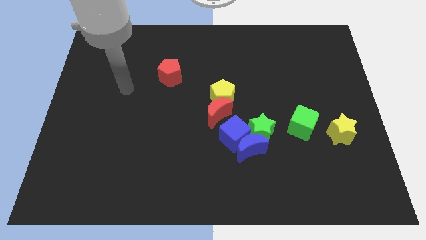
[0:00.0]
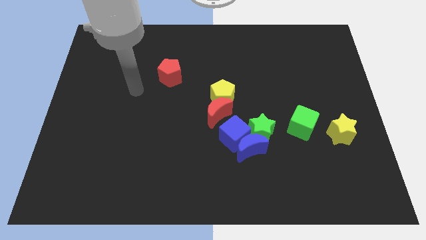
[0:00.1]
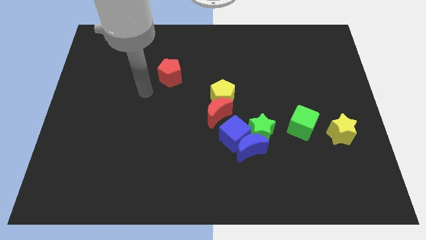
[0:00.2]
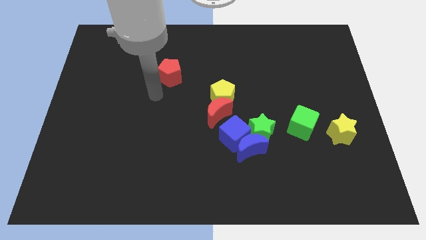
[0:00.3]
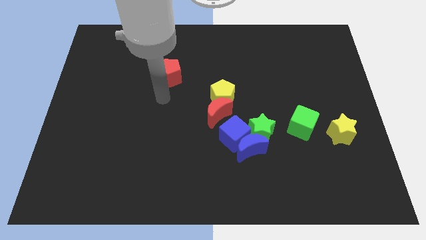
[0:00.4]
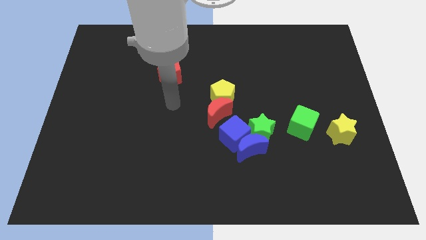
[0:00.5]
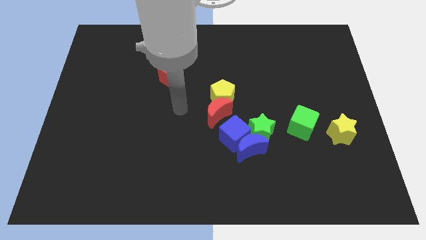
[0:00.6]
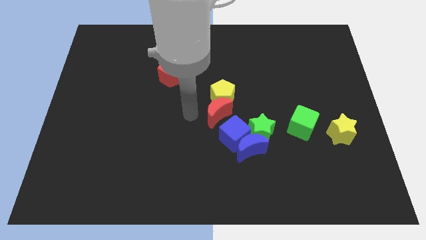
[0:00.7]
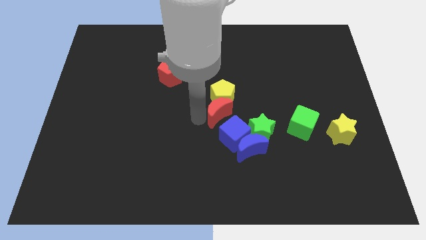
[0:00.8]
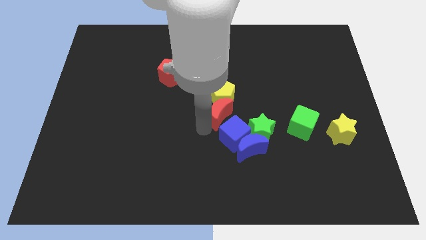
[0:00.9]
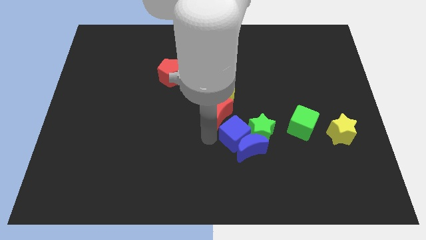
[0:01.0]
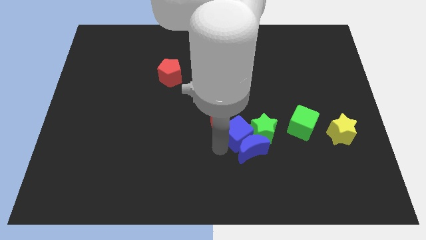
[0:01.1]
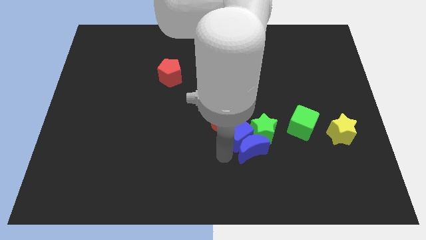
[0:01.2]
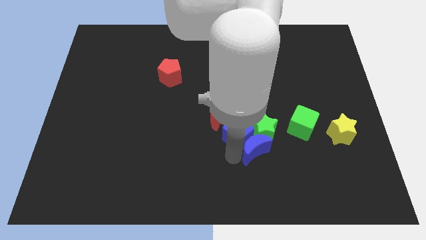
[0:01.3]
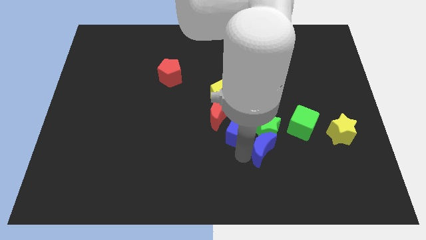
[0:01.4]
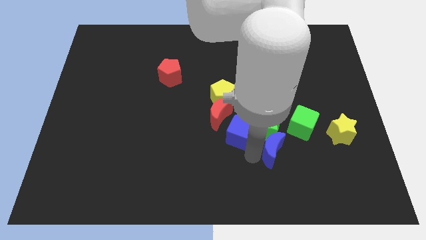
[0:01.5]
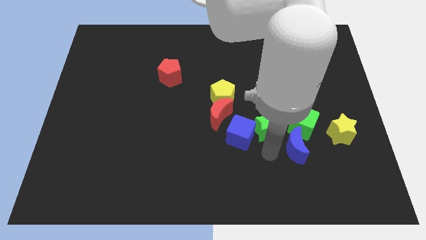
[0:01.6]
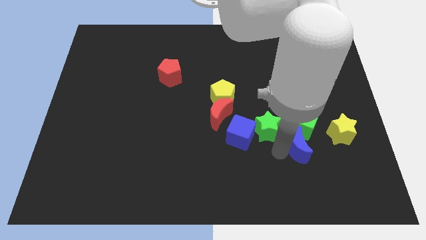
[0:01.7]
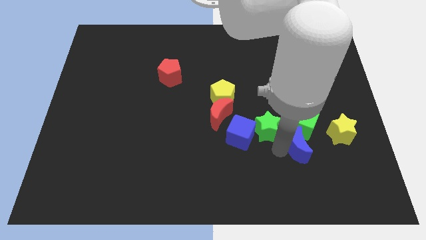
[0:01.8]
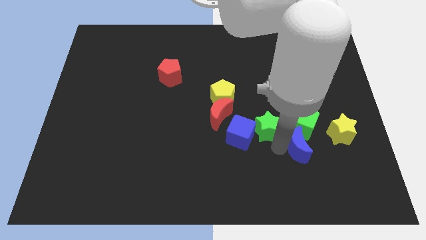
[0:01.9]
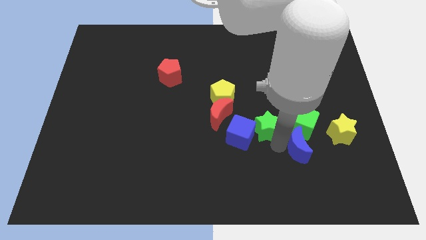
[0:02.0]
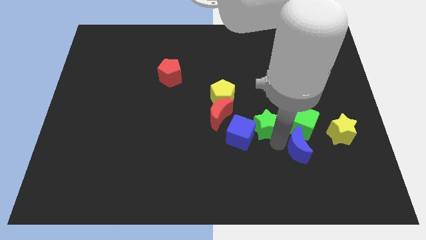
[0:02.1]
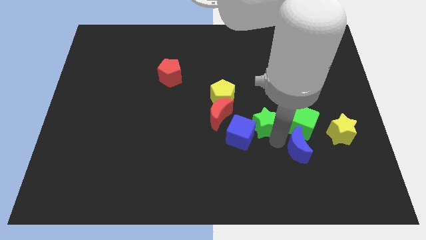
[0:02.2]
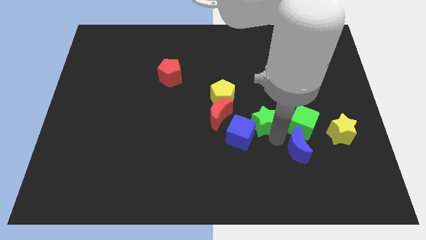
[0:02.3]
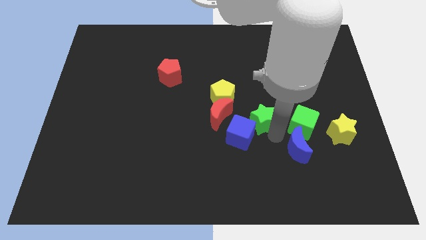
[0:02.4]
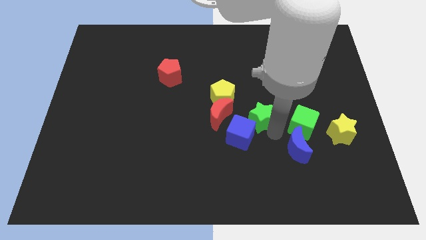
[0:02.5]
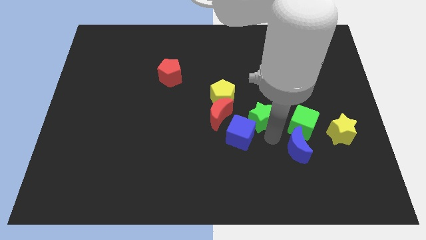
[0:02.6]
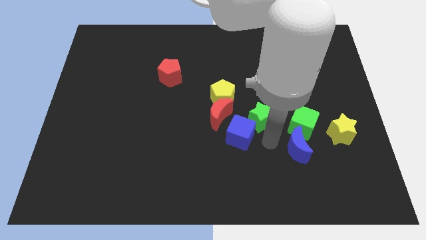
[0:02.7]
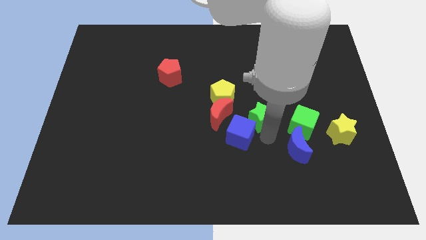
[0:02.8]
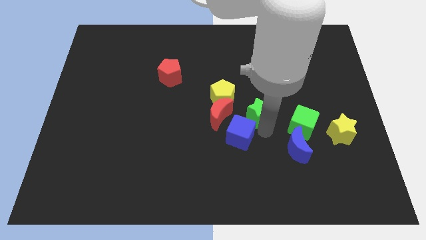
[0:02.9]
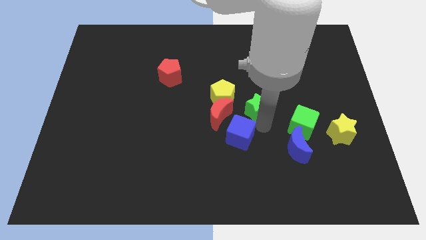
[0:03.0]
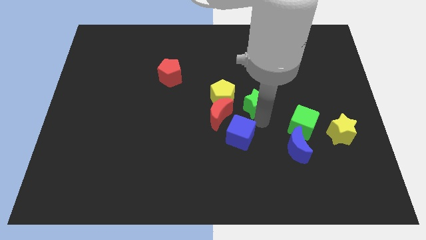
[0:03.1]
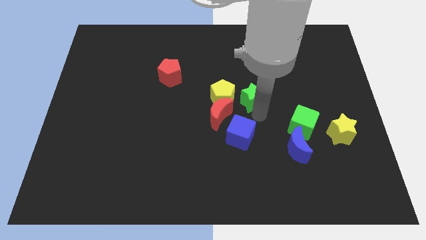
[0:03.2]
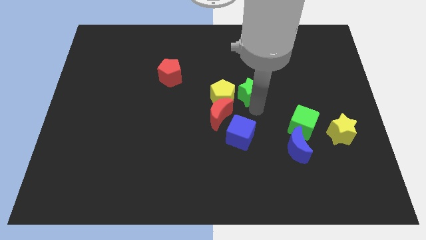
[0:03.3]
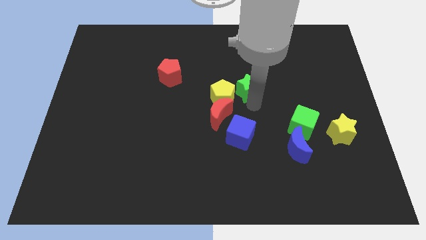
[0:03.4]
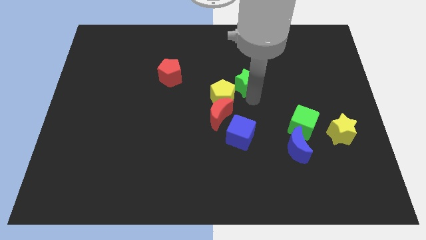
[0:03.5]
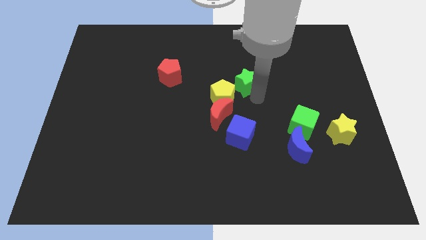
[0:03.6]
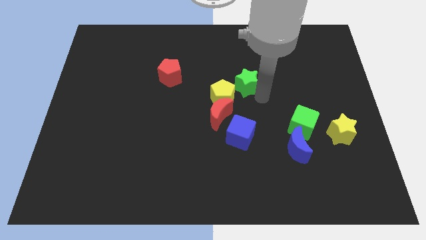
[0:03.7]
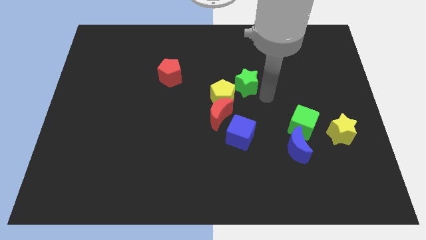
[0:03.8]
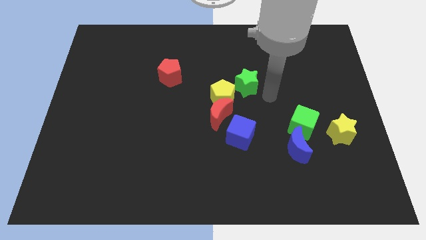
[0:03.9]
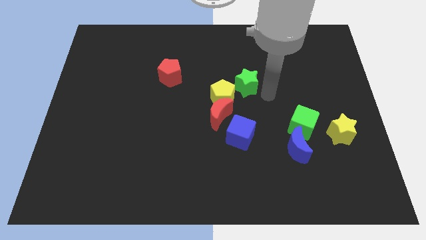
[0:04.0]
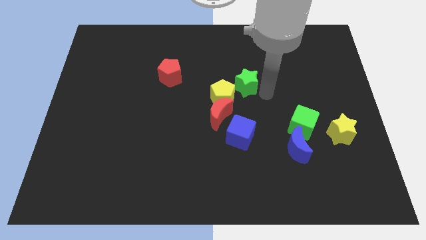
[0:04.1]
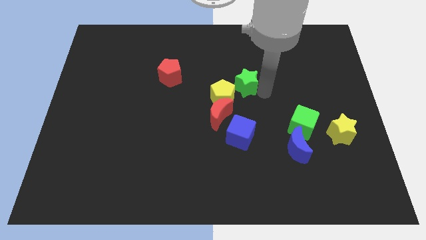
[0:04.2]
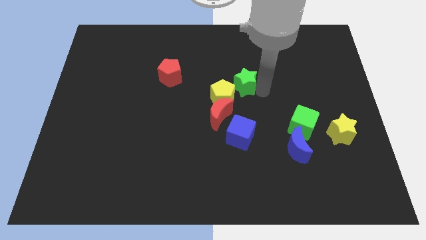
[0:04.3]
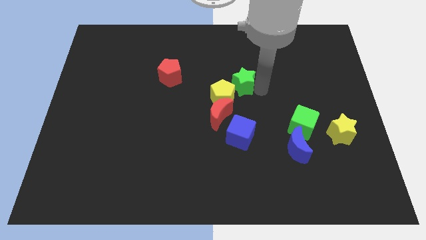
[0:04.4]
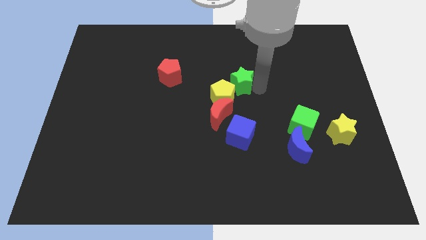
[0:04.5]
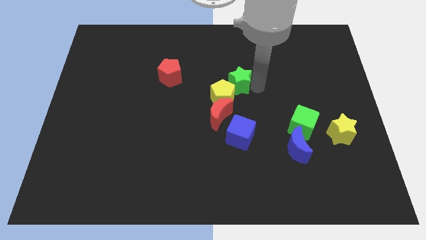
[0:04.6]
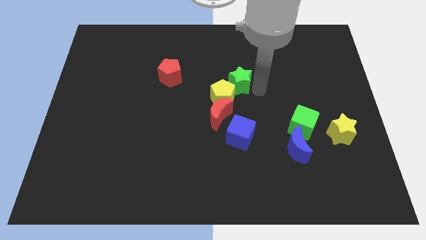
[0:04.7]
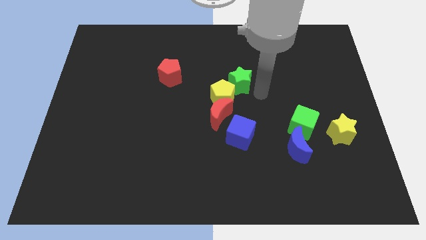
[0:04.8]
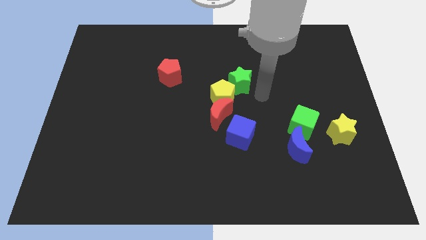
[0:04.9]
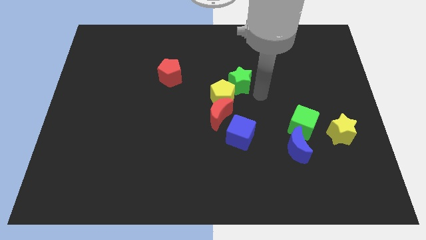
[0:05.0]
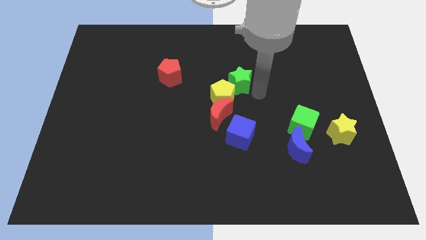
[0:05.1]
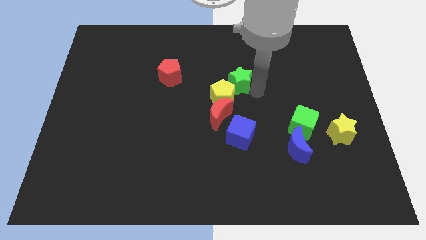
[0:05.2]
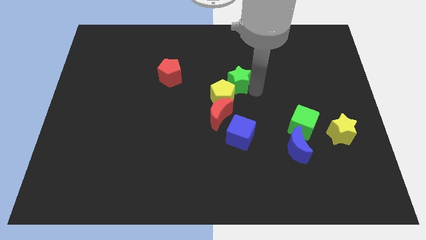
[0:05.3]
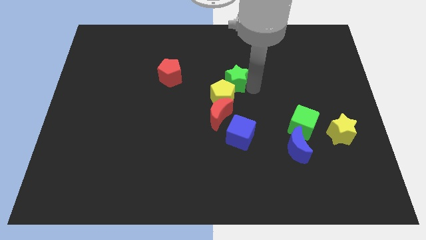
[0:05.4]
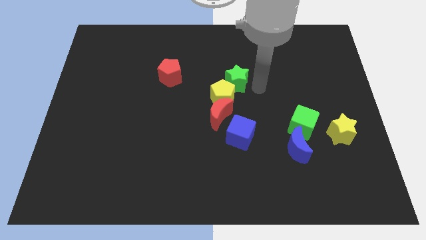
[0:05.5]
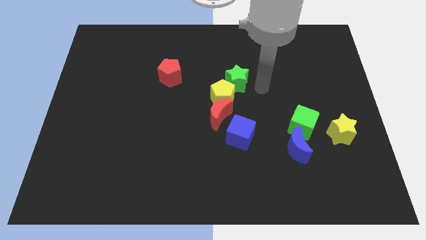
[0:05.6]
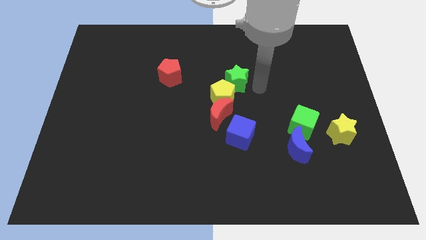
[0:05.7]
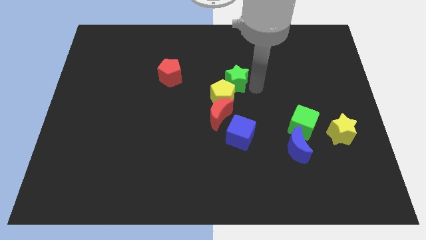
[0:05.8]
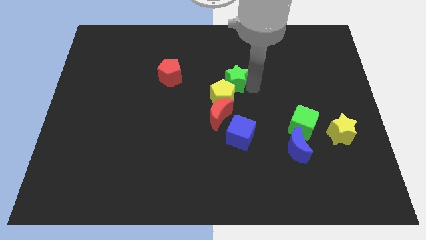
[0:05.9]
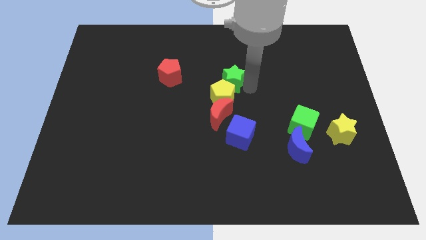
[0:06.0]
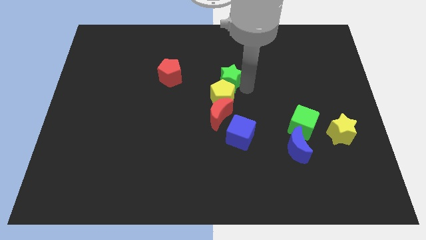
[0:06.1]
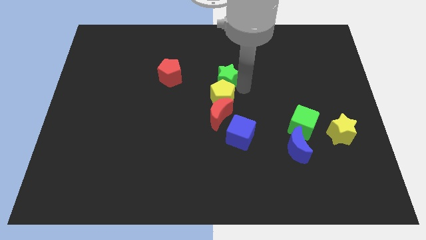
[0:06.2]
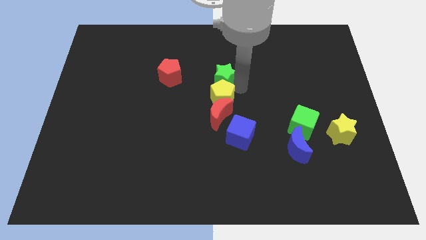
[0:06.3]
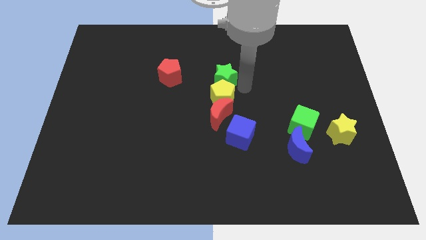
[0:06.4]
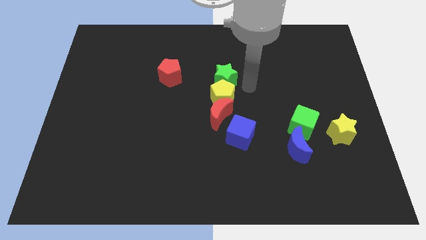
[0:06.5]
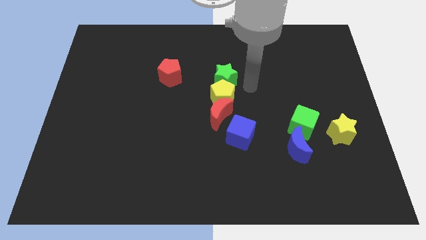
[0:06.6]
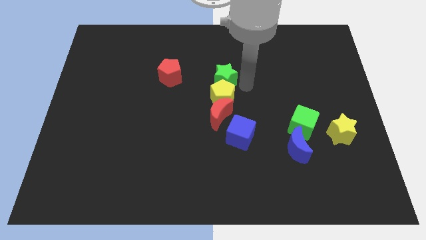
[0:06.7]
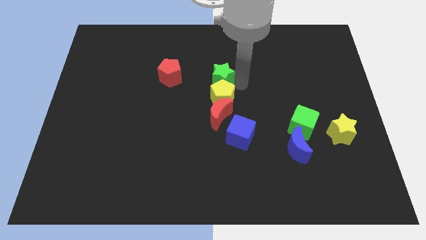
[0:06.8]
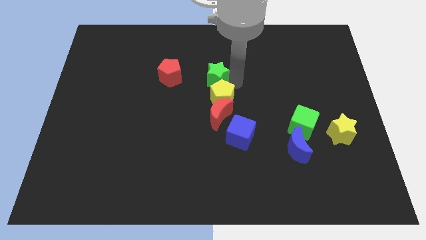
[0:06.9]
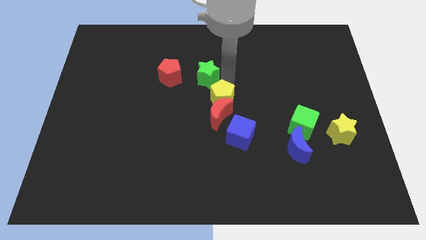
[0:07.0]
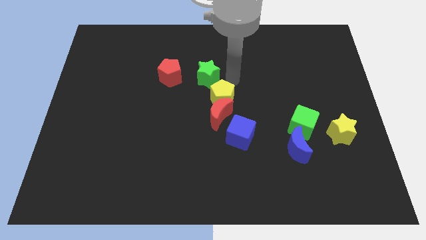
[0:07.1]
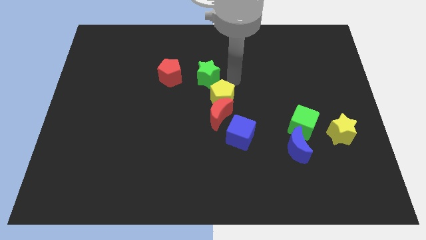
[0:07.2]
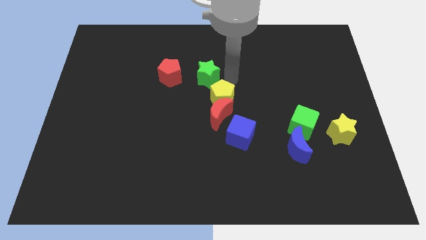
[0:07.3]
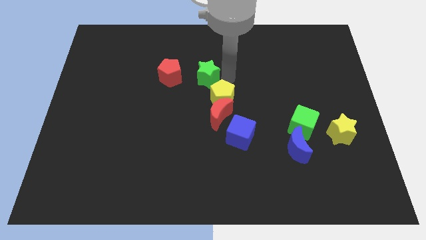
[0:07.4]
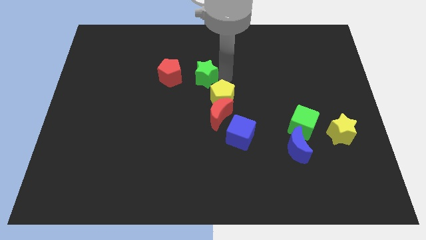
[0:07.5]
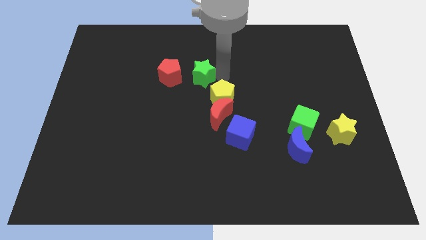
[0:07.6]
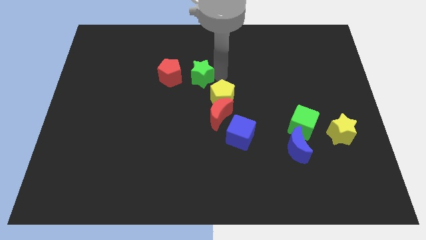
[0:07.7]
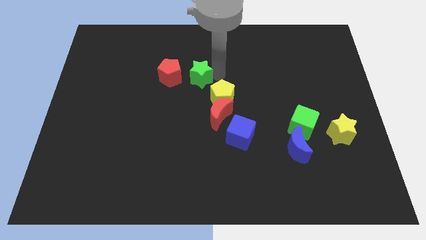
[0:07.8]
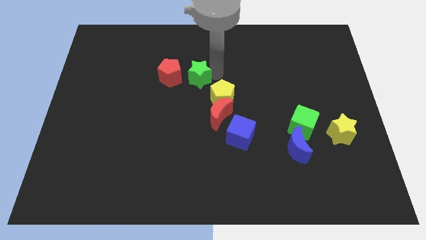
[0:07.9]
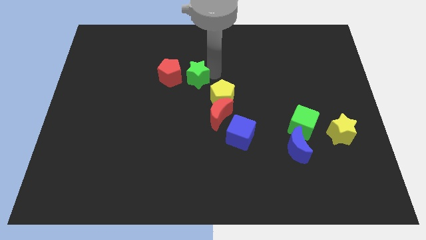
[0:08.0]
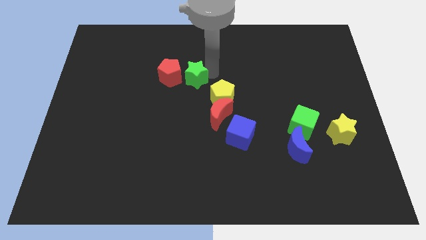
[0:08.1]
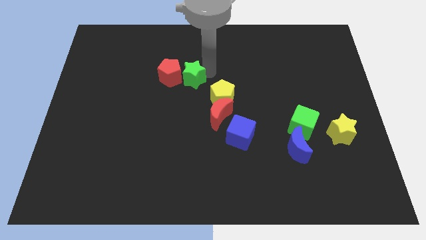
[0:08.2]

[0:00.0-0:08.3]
slide the green star towards the red pentagon
